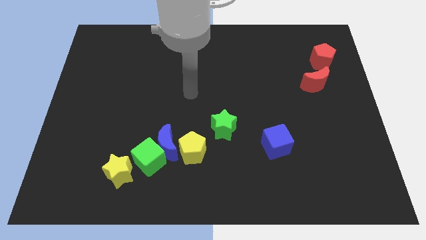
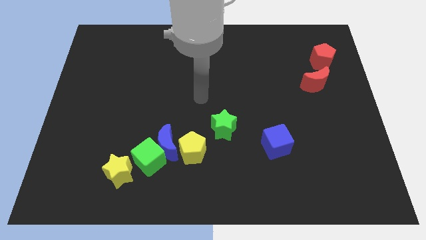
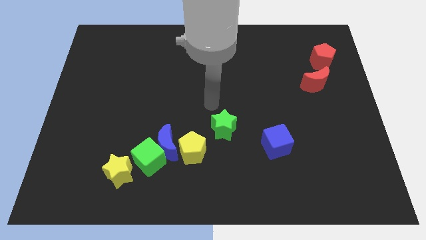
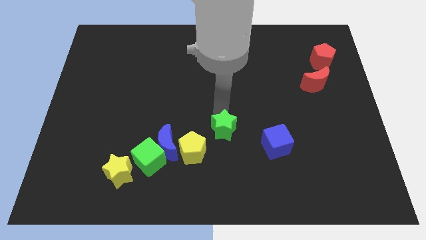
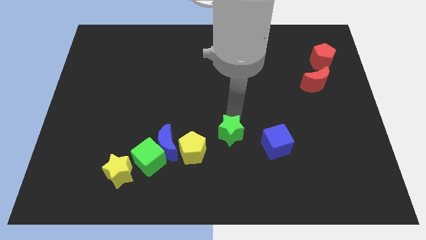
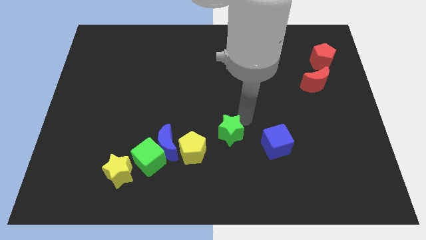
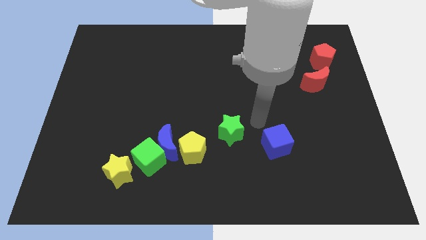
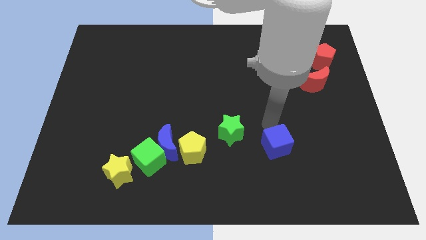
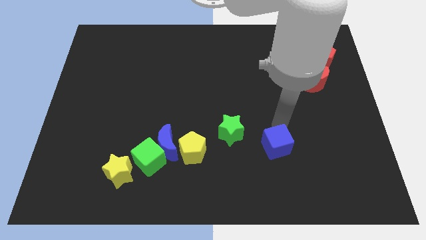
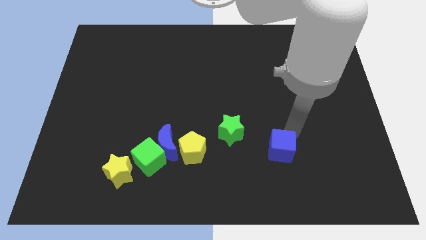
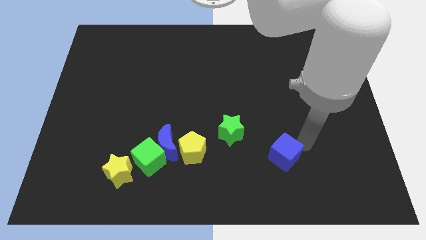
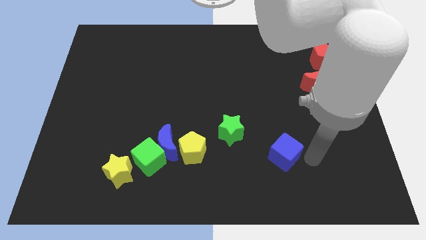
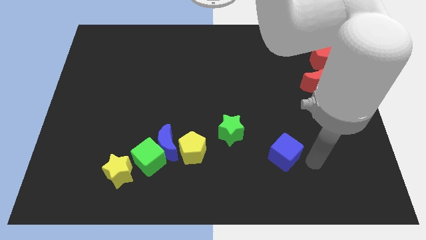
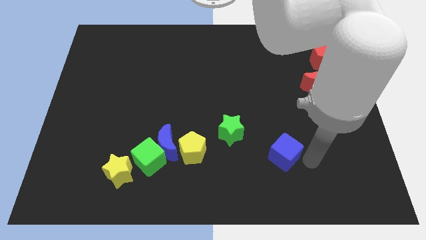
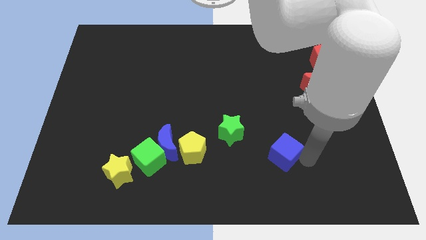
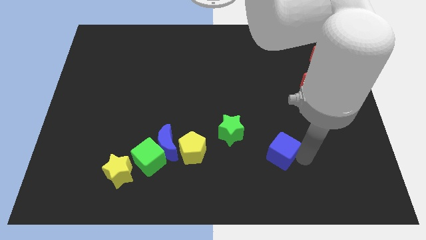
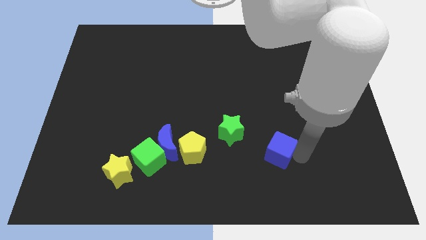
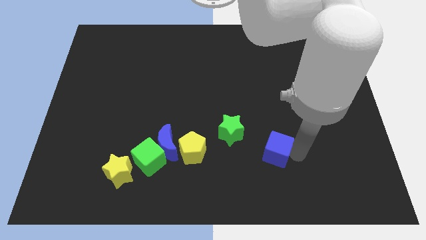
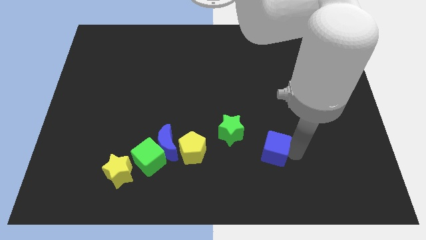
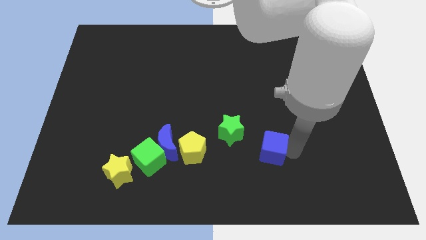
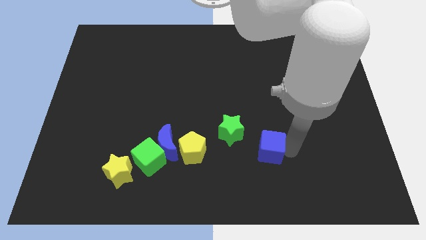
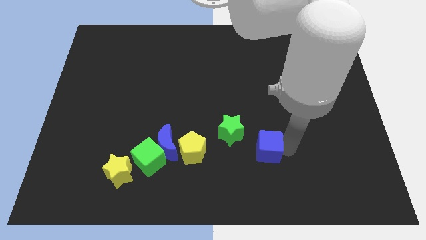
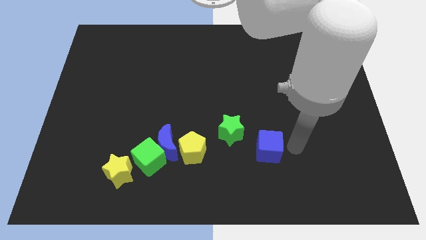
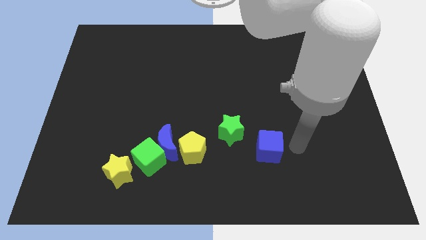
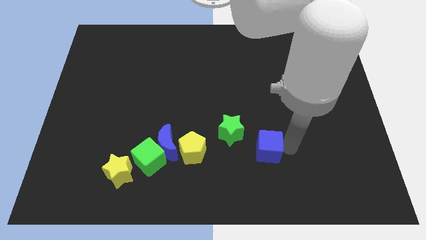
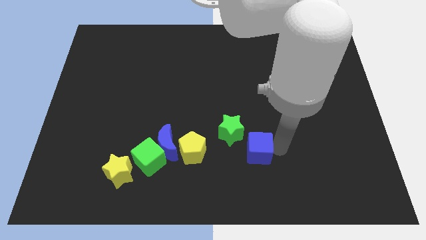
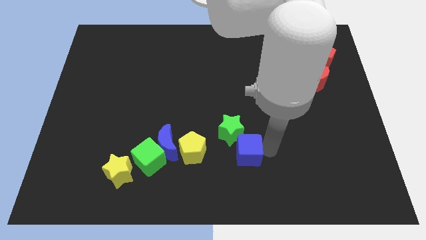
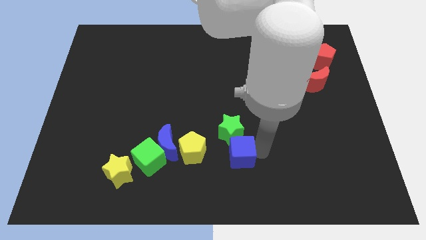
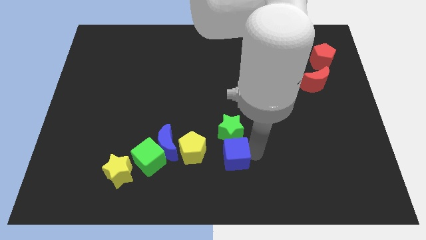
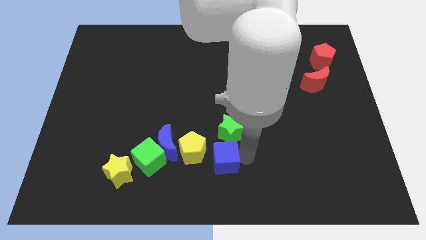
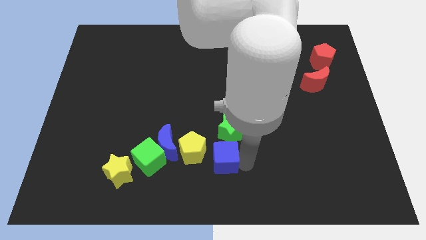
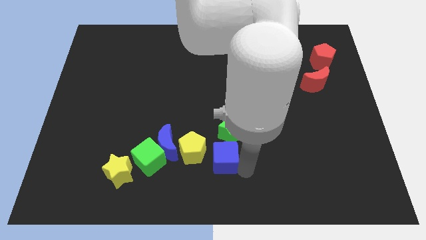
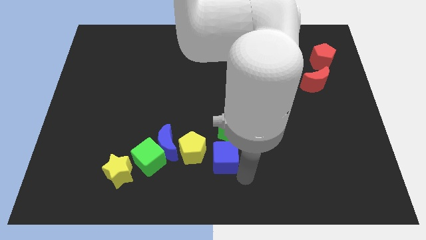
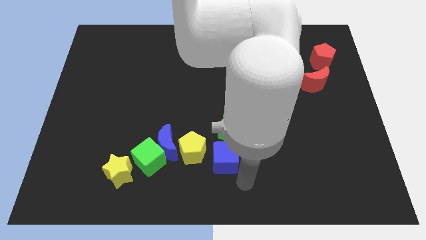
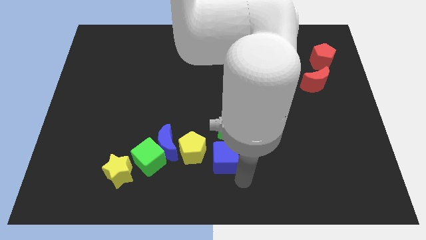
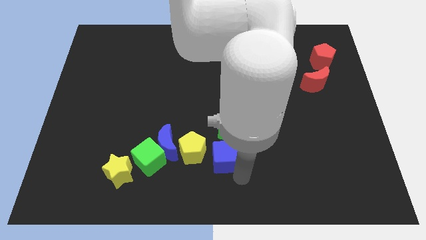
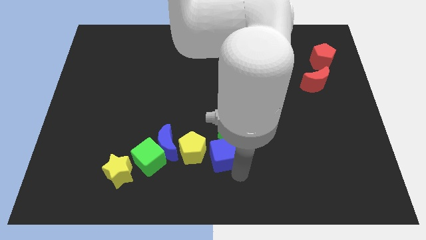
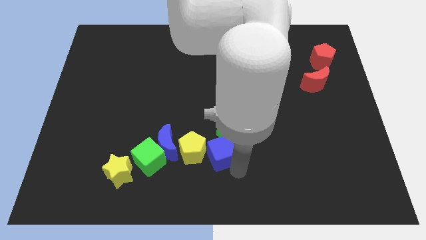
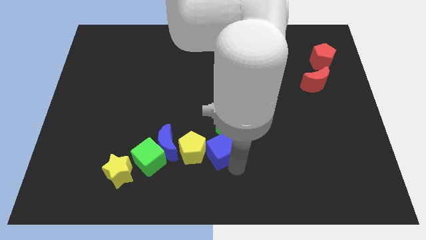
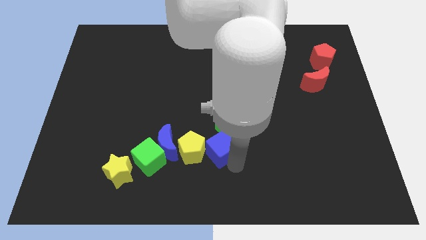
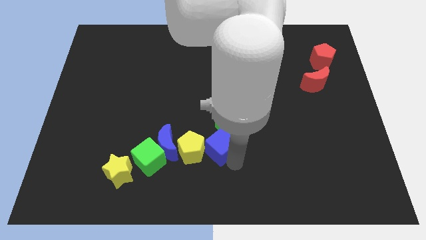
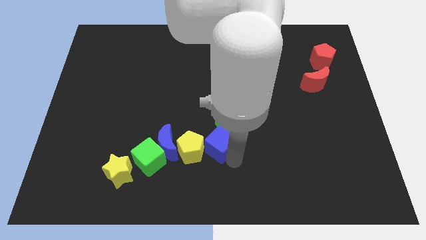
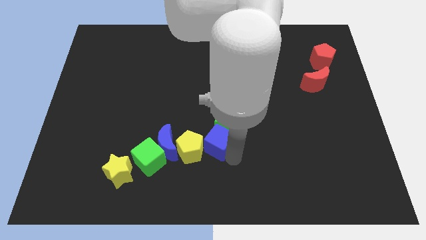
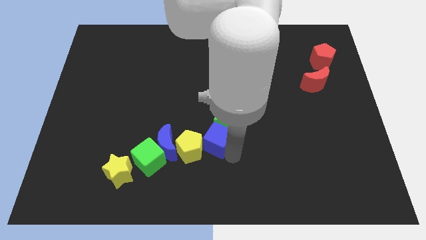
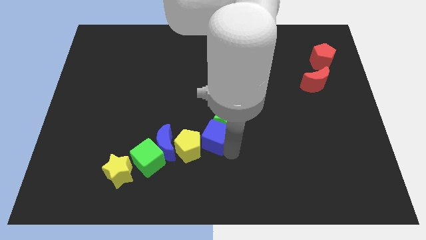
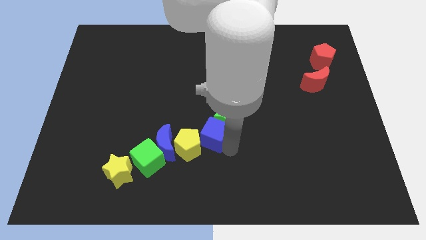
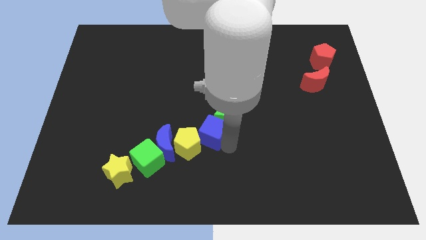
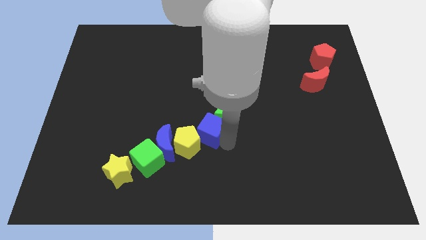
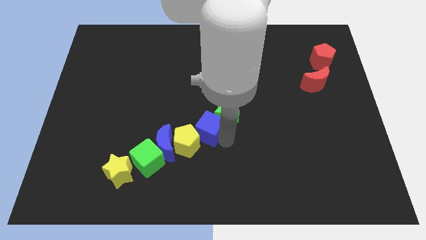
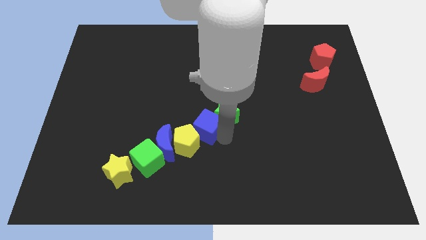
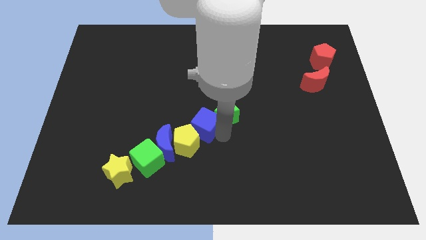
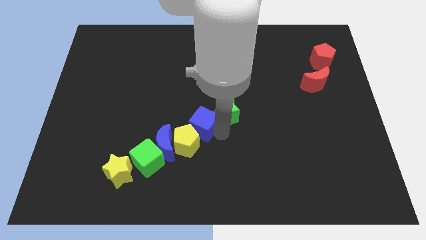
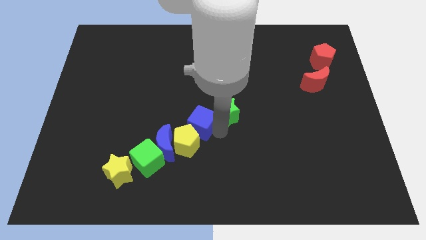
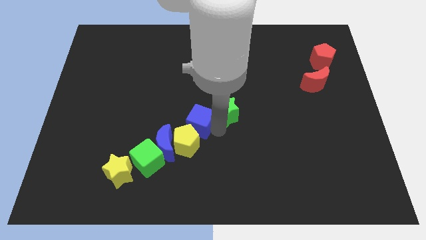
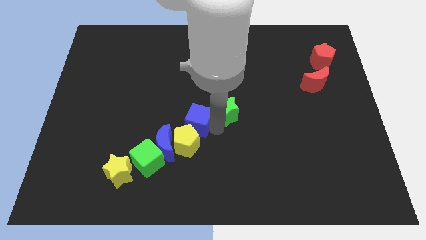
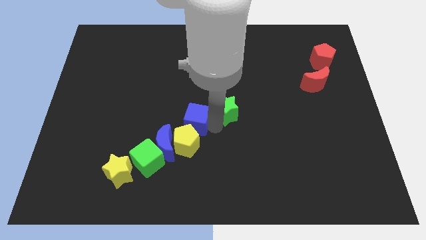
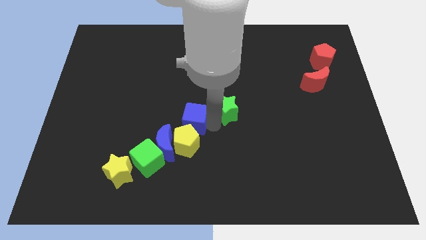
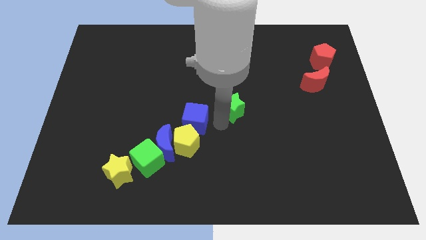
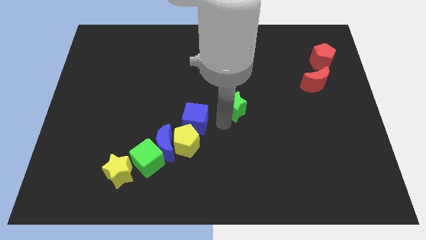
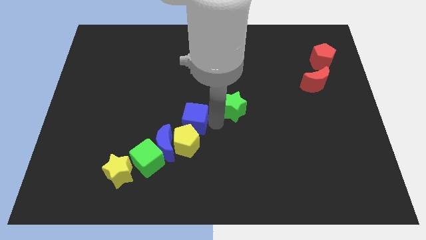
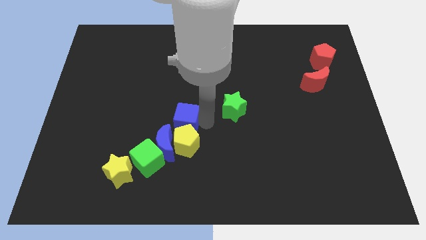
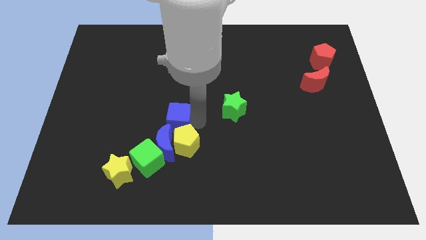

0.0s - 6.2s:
move the blue cube to the left

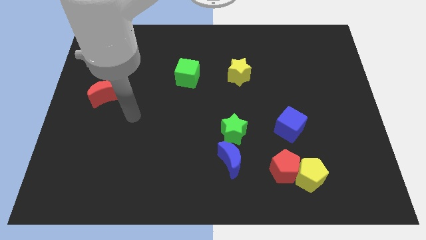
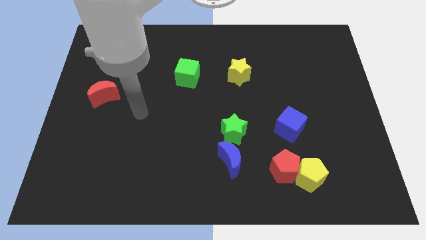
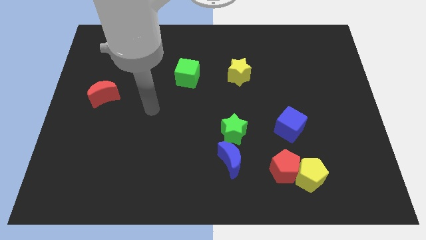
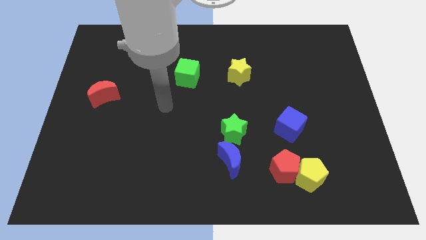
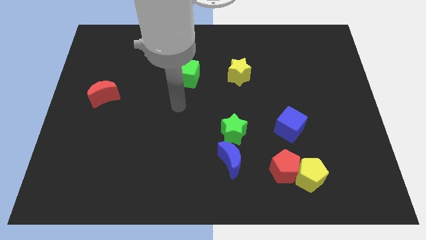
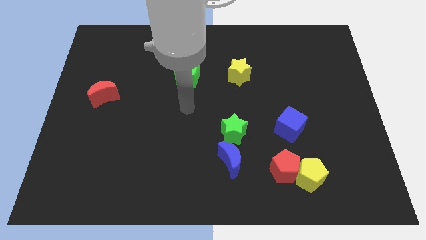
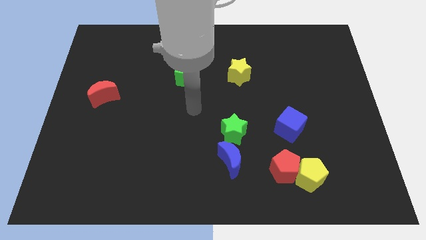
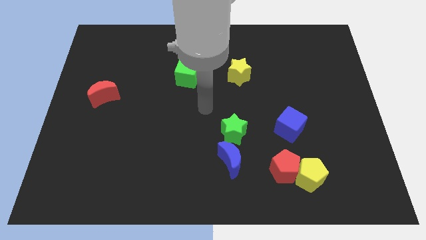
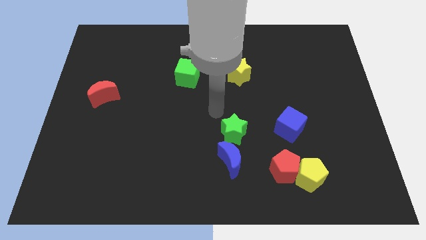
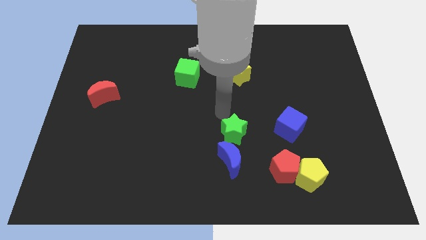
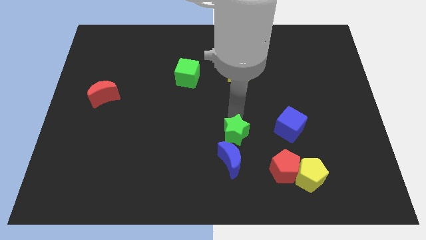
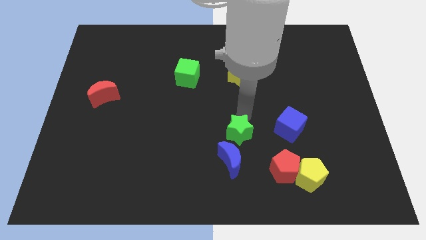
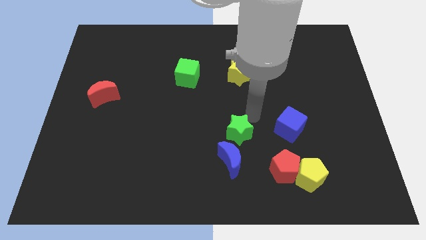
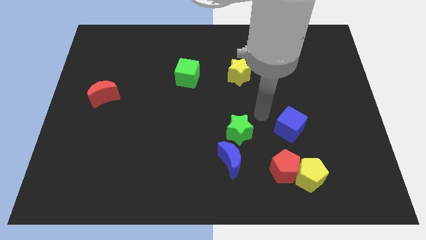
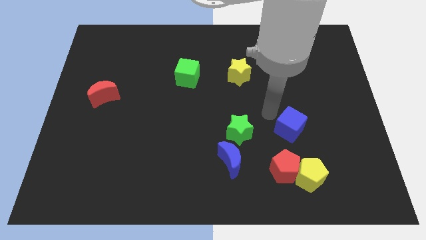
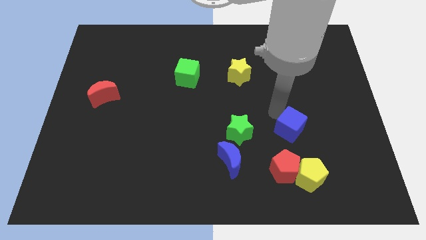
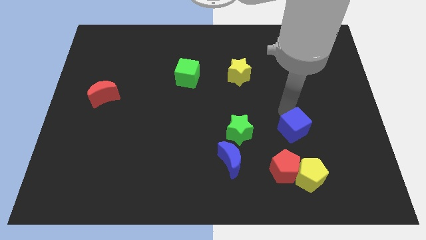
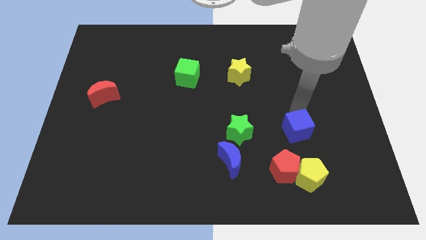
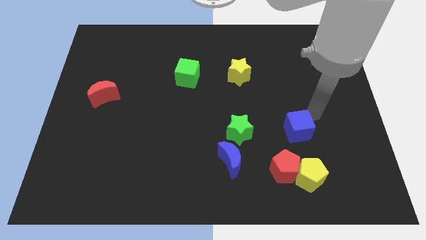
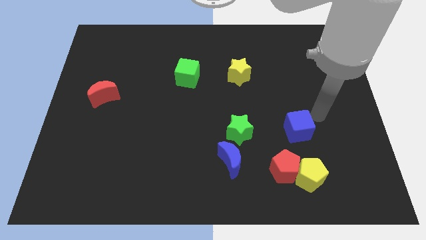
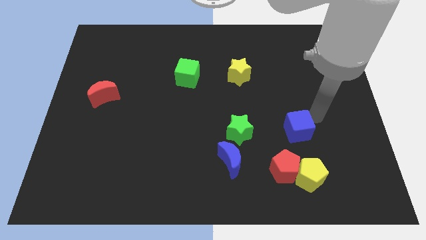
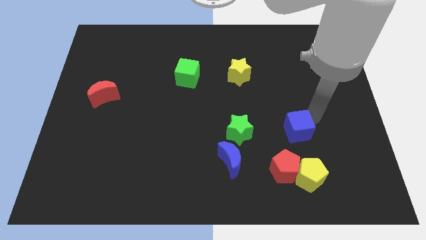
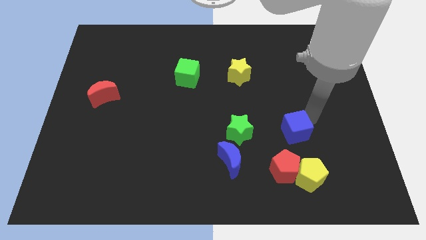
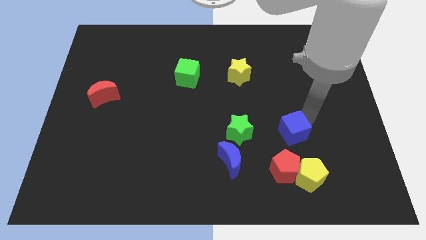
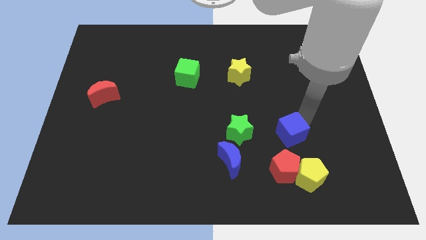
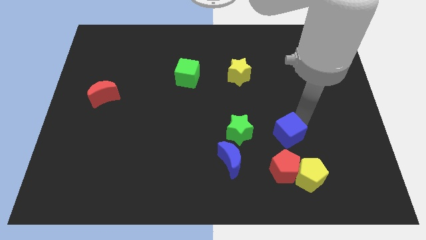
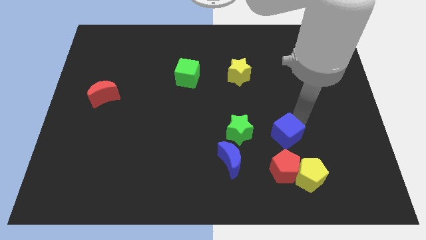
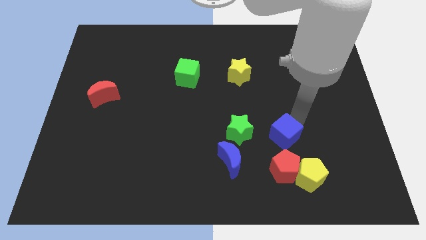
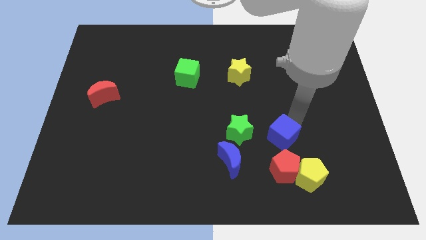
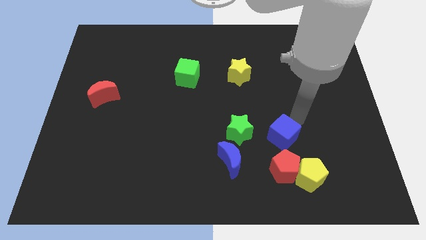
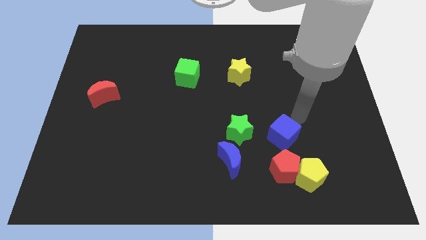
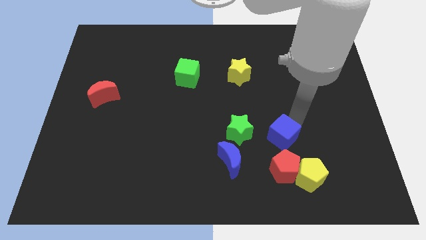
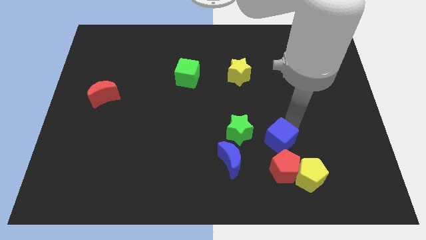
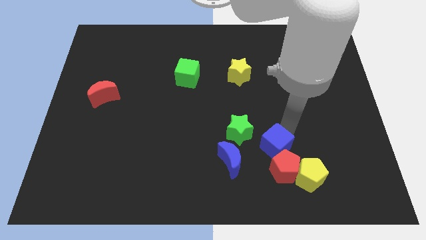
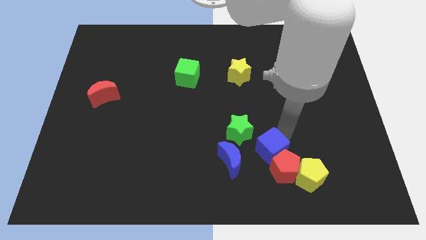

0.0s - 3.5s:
push the blue cube slightly down and then left
